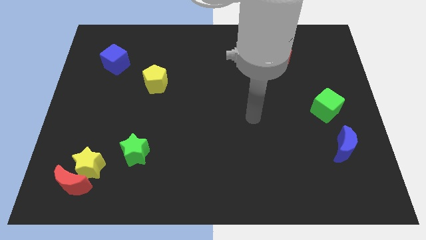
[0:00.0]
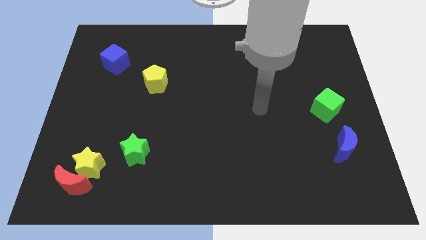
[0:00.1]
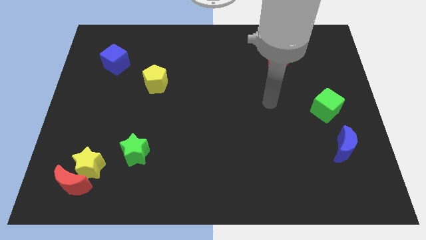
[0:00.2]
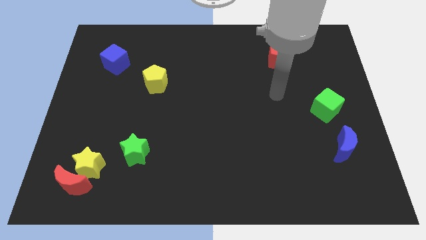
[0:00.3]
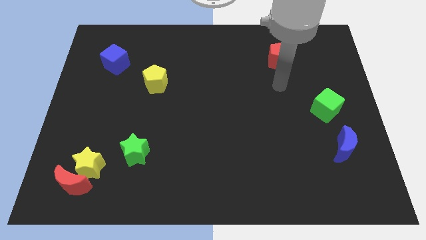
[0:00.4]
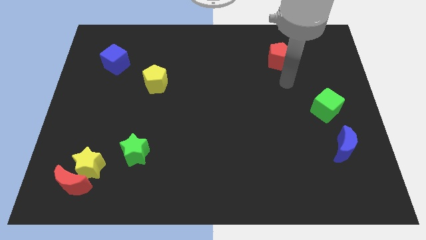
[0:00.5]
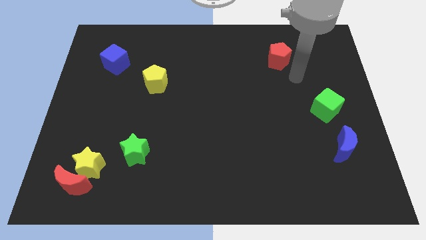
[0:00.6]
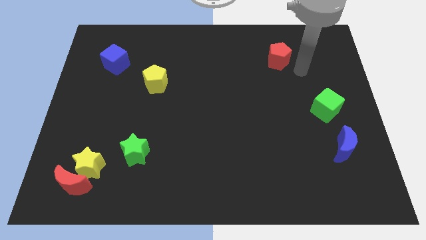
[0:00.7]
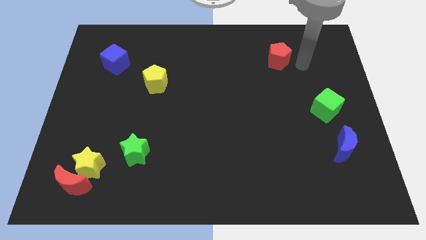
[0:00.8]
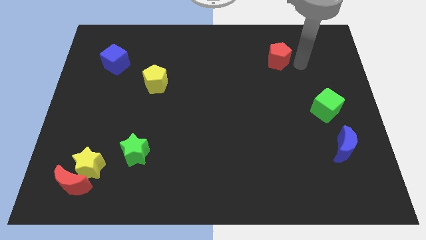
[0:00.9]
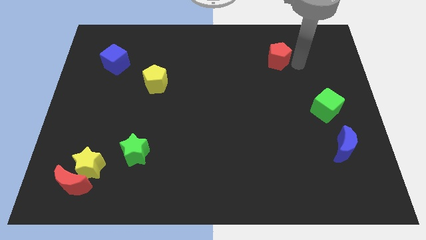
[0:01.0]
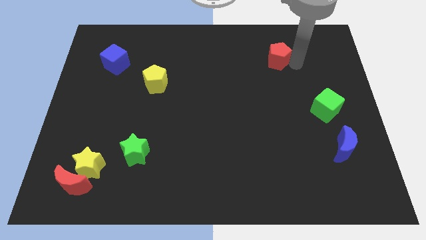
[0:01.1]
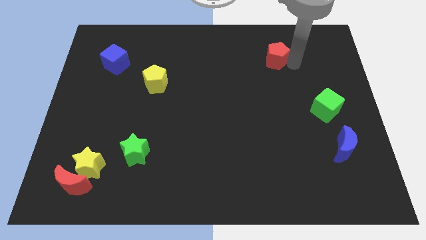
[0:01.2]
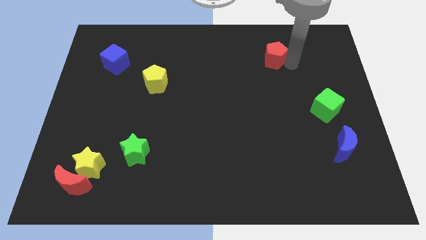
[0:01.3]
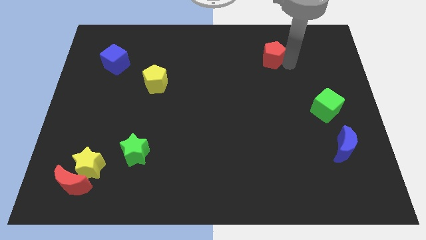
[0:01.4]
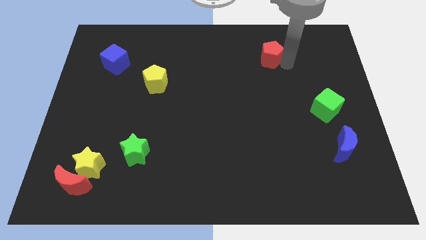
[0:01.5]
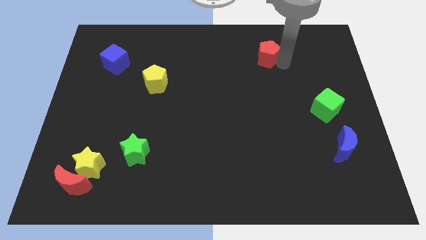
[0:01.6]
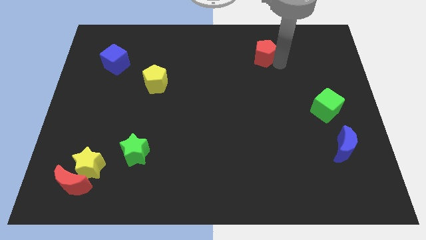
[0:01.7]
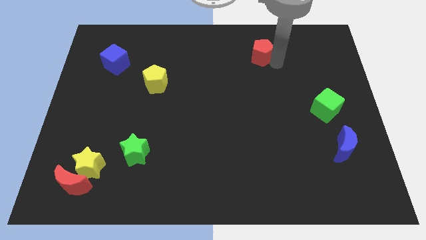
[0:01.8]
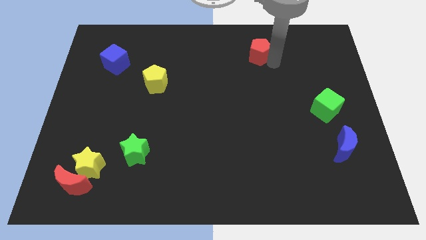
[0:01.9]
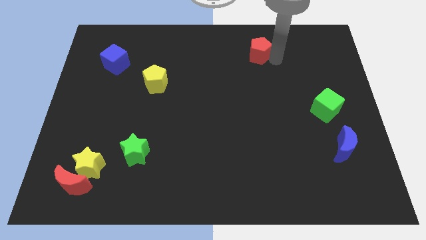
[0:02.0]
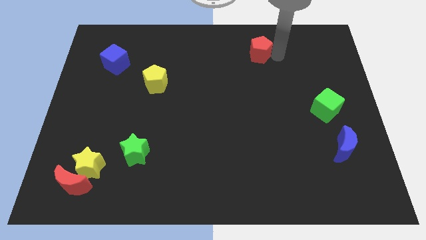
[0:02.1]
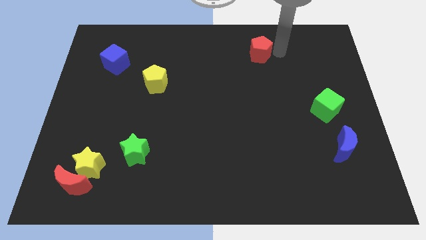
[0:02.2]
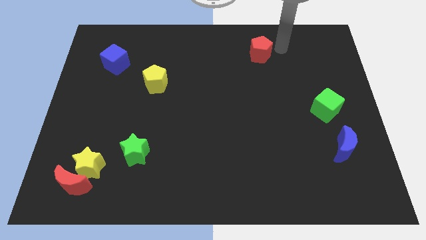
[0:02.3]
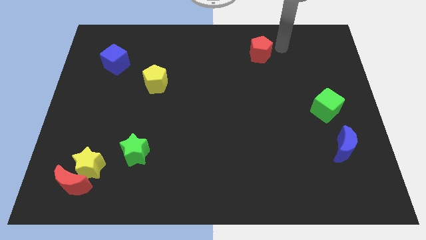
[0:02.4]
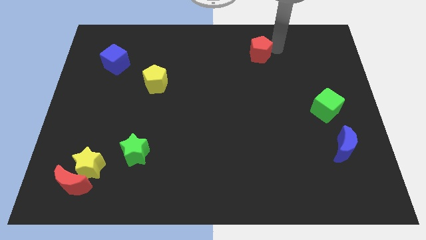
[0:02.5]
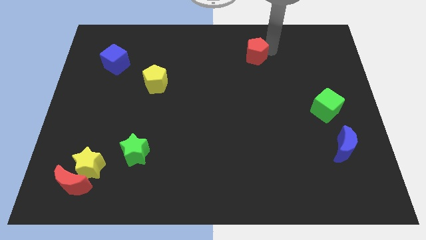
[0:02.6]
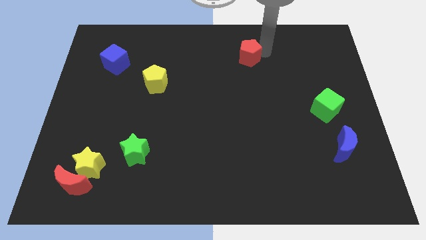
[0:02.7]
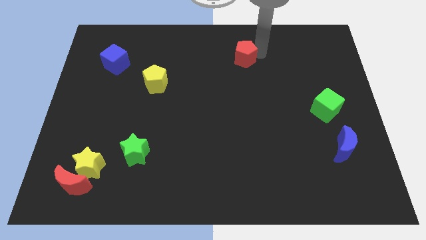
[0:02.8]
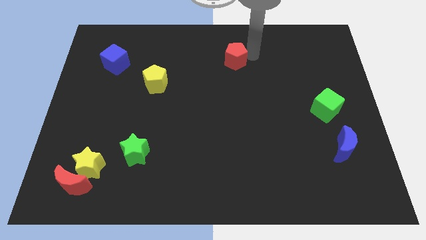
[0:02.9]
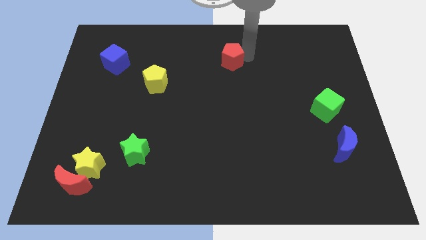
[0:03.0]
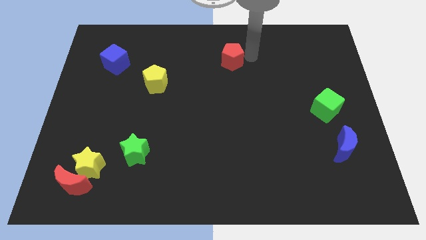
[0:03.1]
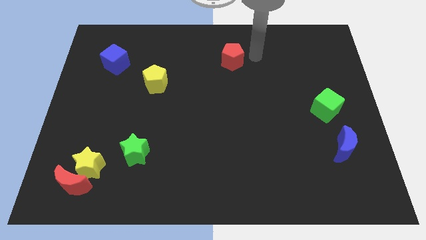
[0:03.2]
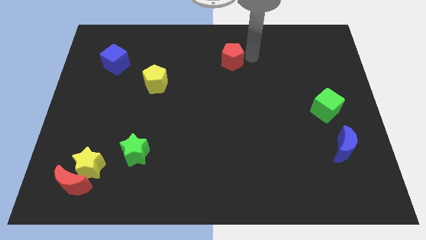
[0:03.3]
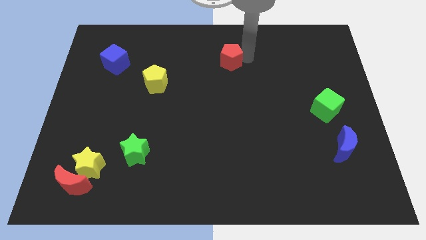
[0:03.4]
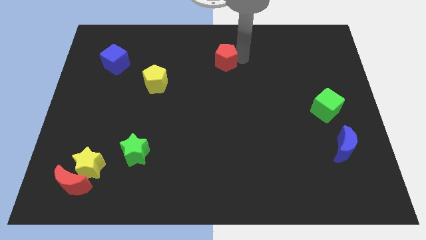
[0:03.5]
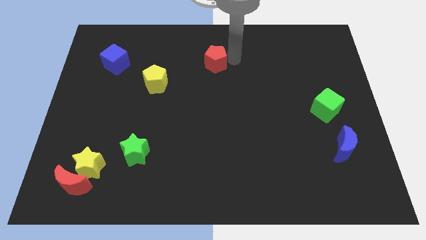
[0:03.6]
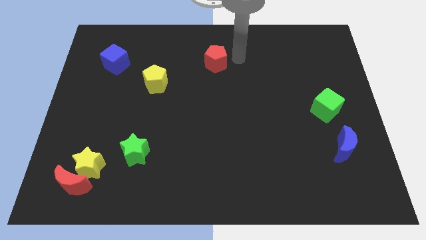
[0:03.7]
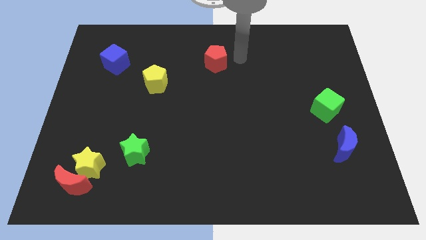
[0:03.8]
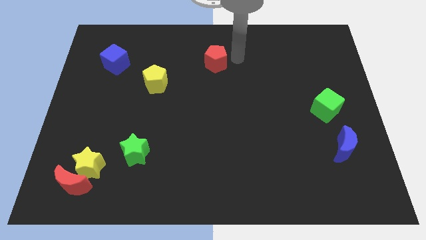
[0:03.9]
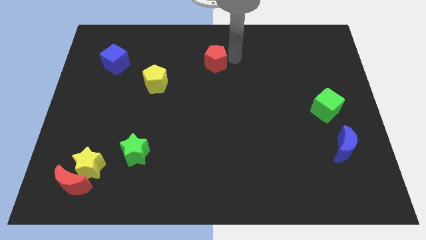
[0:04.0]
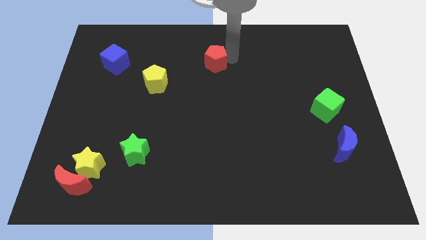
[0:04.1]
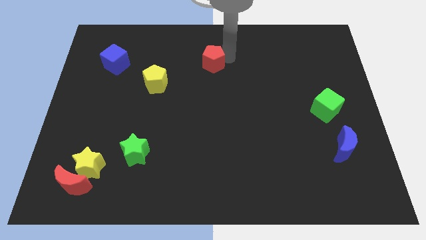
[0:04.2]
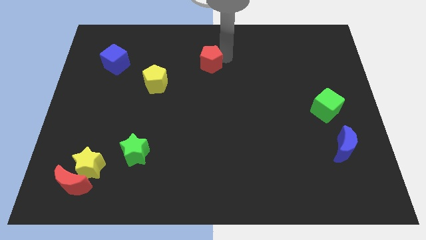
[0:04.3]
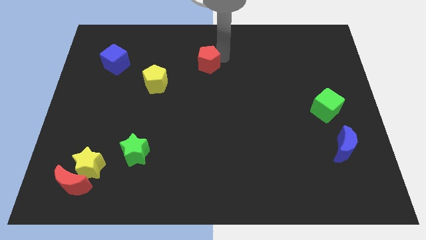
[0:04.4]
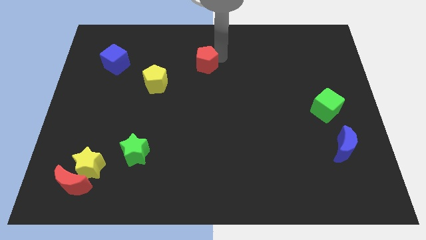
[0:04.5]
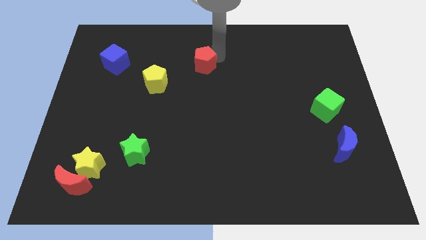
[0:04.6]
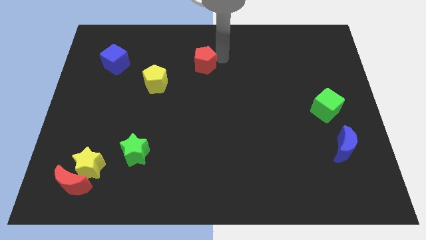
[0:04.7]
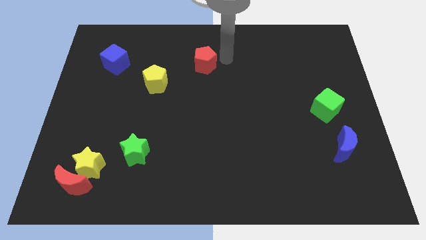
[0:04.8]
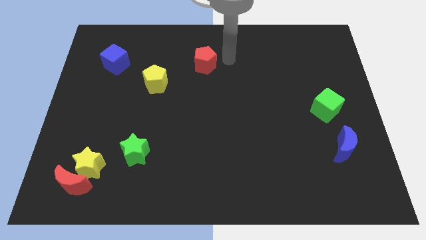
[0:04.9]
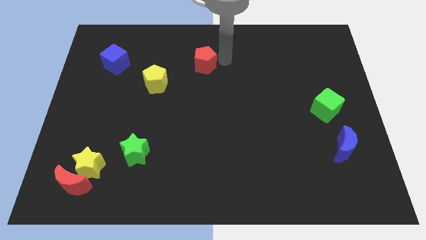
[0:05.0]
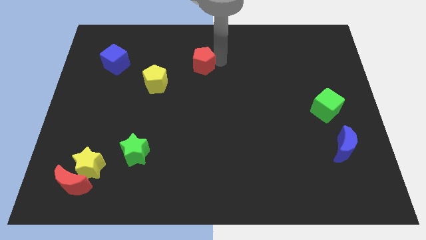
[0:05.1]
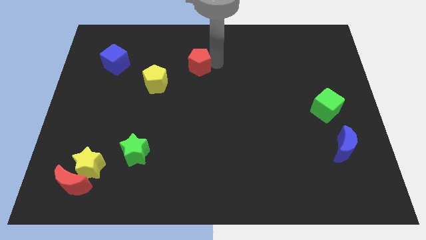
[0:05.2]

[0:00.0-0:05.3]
move the red pentagon left

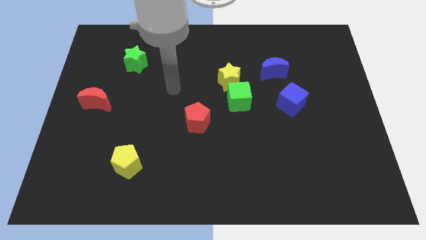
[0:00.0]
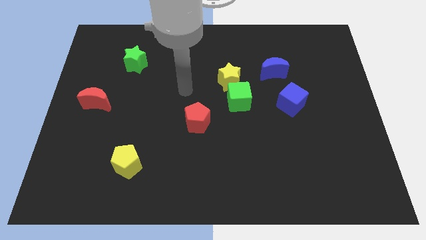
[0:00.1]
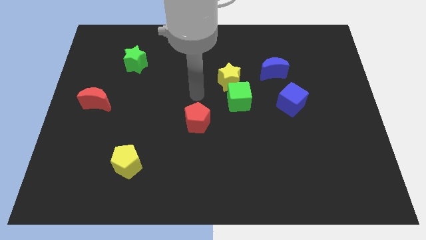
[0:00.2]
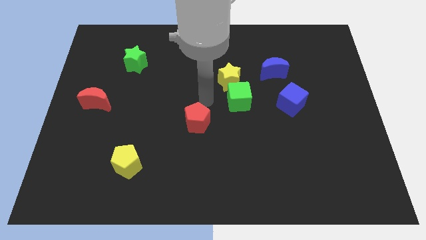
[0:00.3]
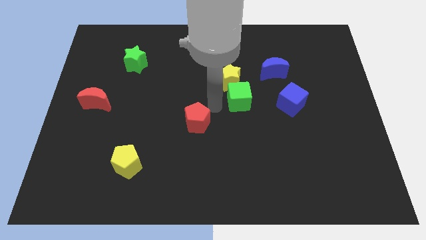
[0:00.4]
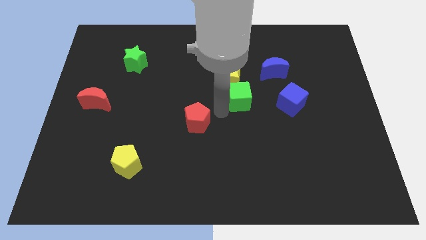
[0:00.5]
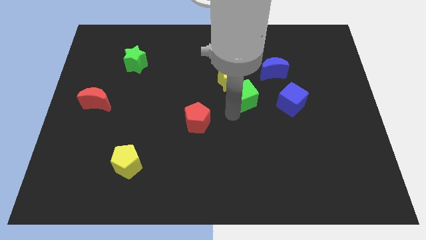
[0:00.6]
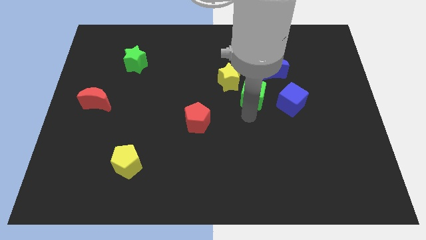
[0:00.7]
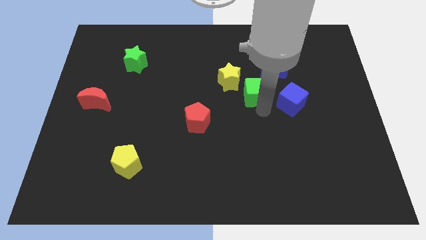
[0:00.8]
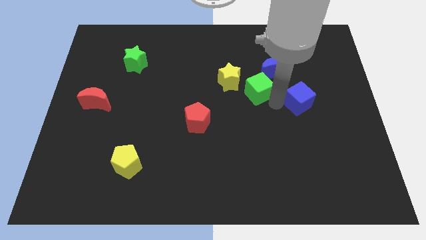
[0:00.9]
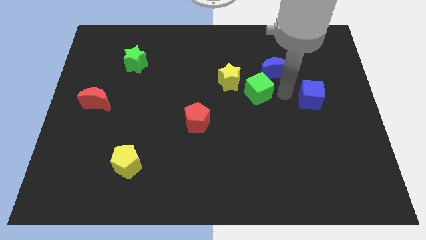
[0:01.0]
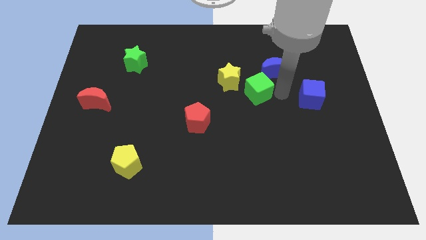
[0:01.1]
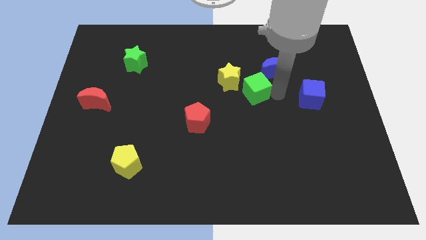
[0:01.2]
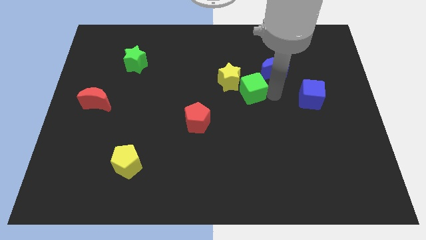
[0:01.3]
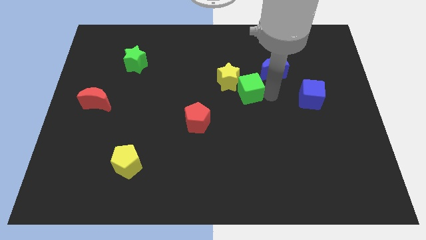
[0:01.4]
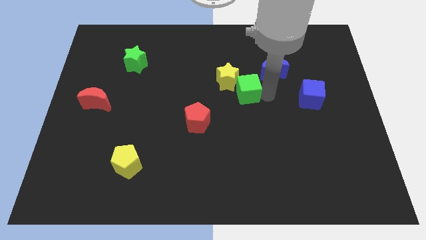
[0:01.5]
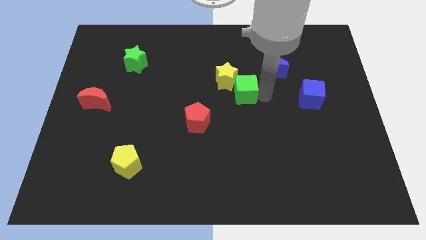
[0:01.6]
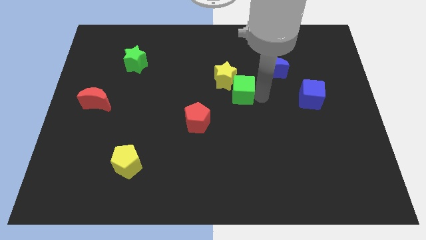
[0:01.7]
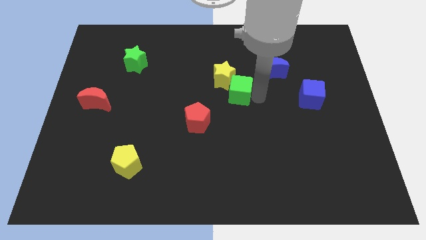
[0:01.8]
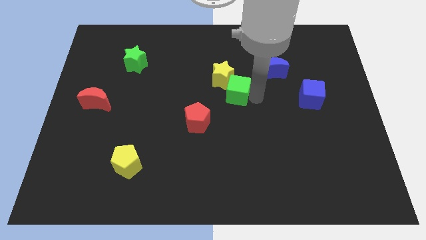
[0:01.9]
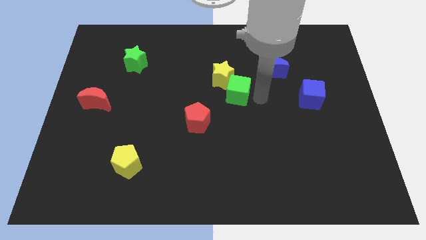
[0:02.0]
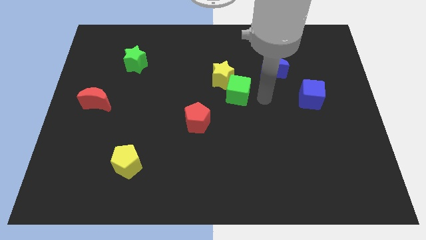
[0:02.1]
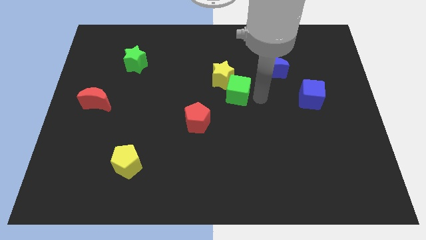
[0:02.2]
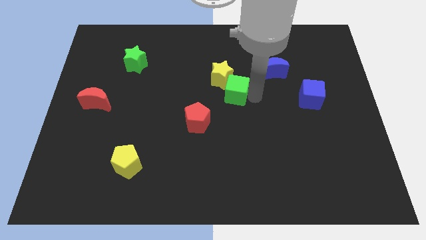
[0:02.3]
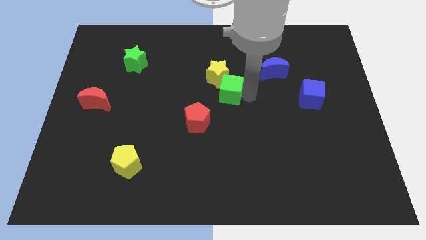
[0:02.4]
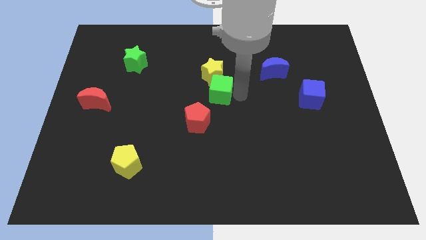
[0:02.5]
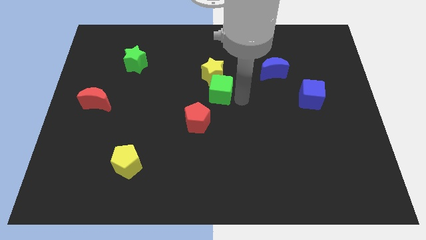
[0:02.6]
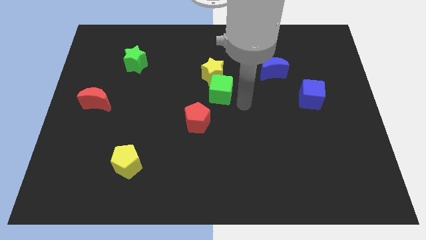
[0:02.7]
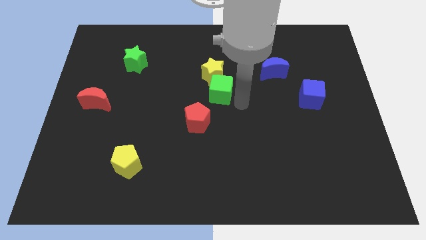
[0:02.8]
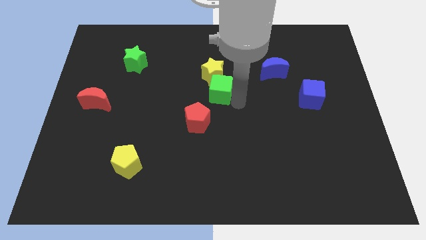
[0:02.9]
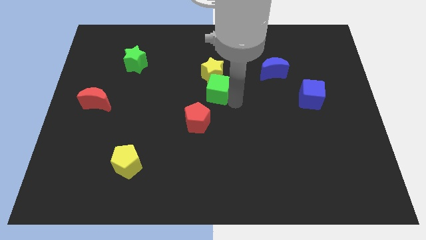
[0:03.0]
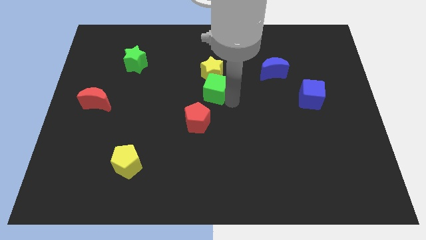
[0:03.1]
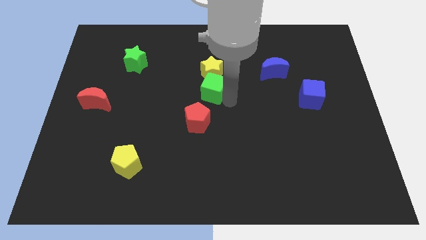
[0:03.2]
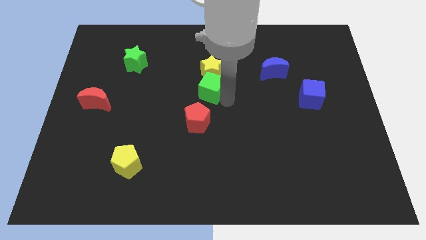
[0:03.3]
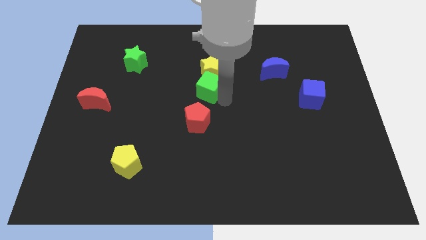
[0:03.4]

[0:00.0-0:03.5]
slightly move the green cube upwards and then to the left
